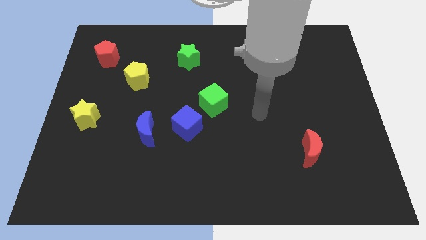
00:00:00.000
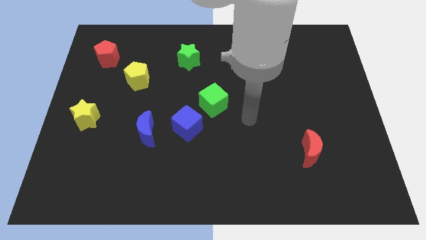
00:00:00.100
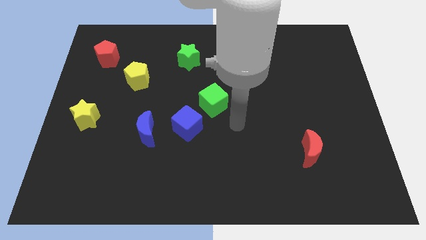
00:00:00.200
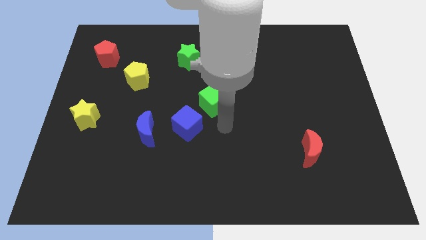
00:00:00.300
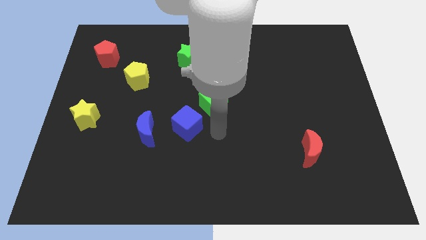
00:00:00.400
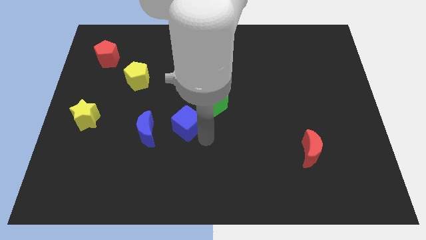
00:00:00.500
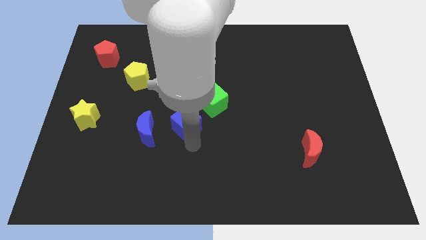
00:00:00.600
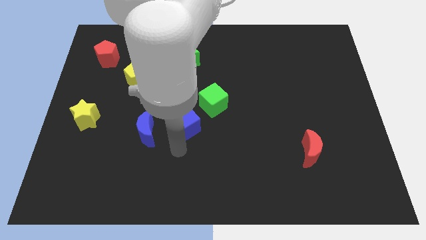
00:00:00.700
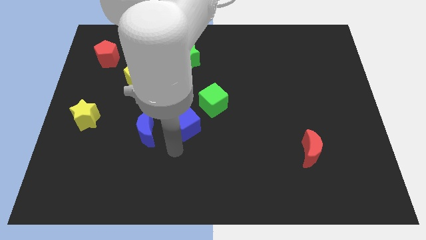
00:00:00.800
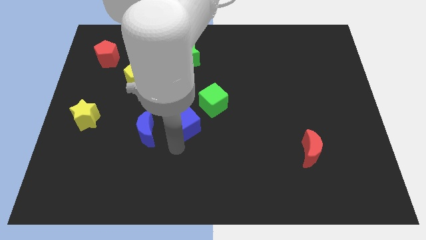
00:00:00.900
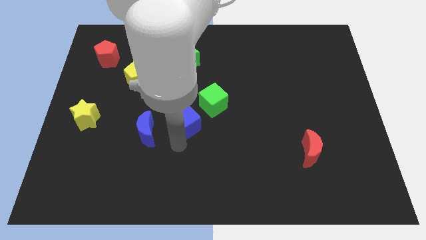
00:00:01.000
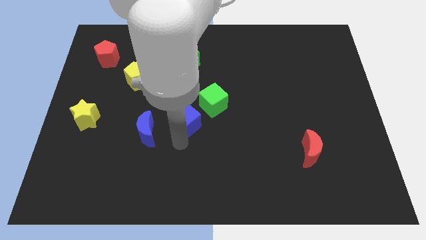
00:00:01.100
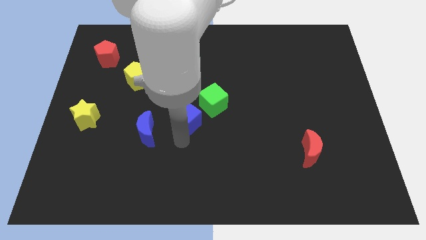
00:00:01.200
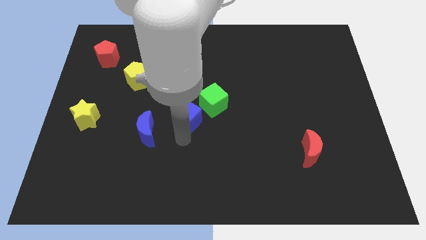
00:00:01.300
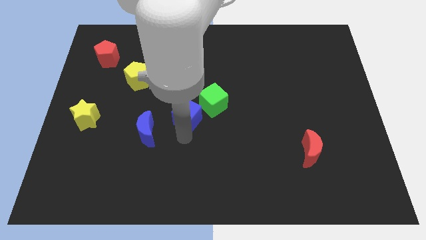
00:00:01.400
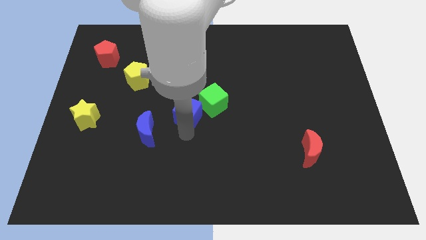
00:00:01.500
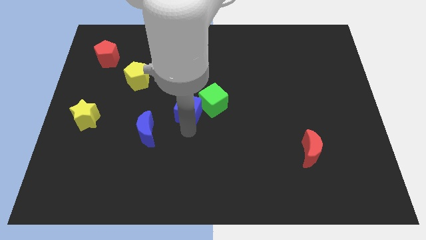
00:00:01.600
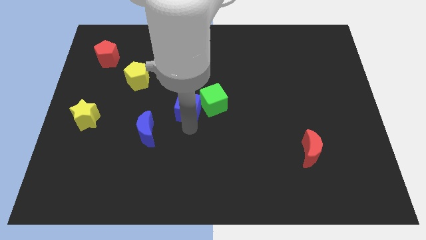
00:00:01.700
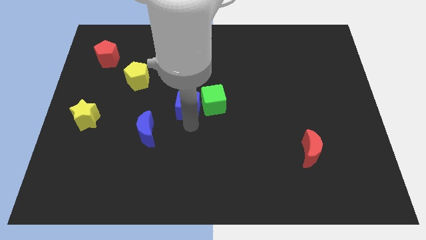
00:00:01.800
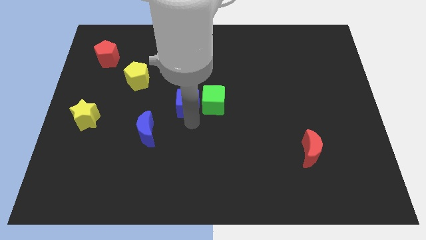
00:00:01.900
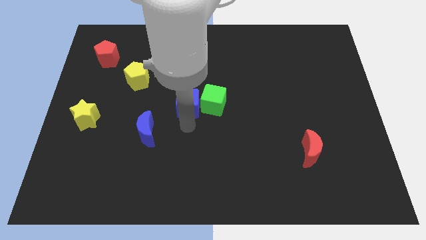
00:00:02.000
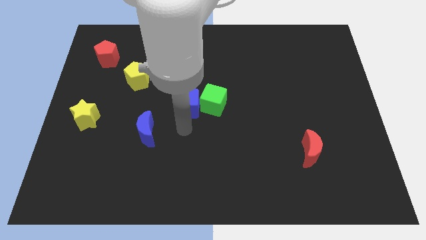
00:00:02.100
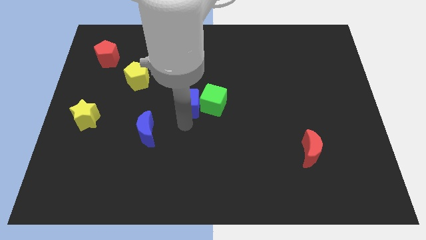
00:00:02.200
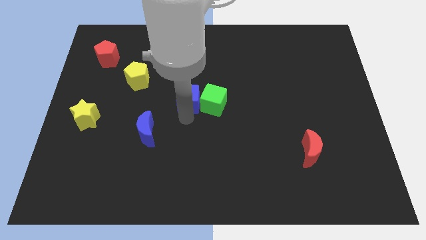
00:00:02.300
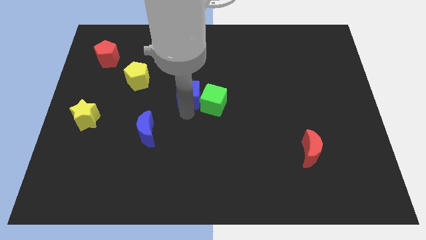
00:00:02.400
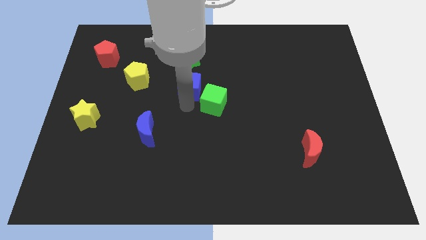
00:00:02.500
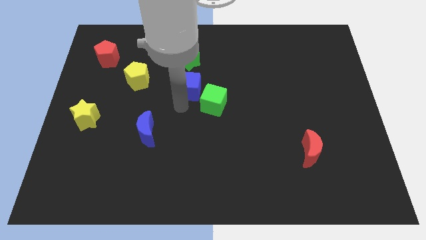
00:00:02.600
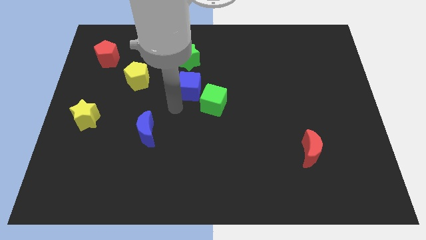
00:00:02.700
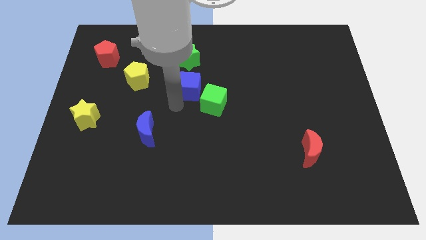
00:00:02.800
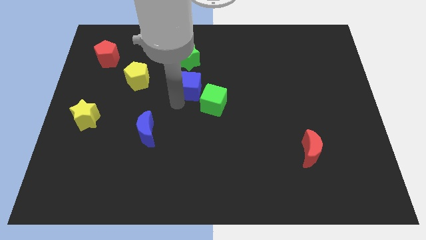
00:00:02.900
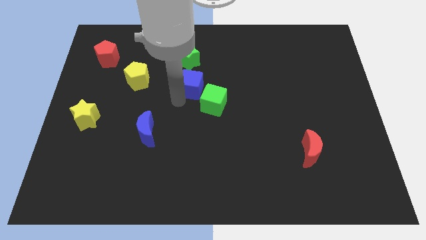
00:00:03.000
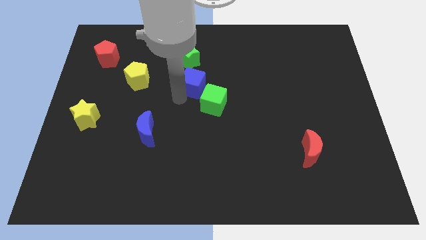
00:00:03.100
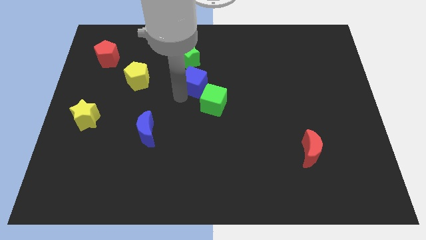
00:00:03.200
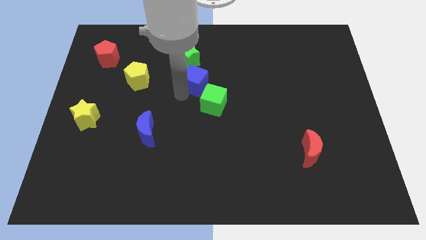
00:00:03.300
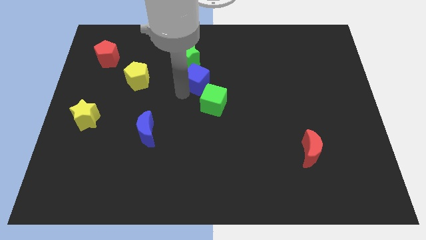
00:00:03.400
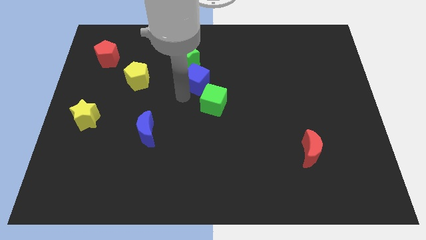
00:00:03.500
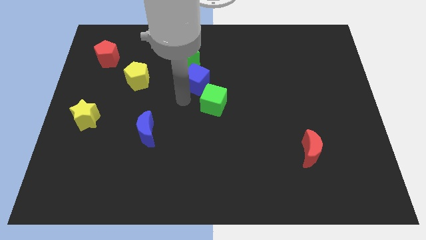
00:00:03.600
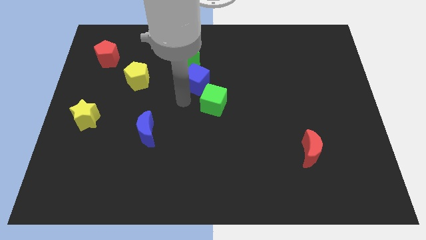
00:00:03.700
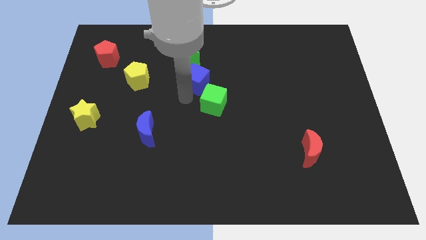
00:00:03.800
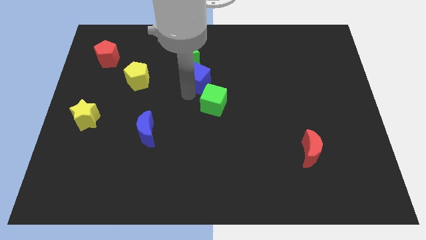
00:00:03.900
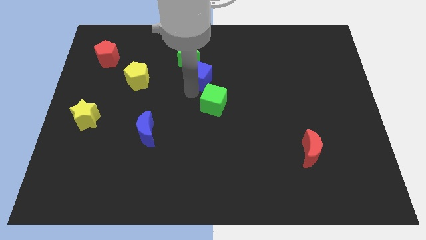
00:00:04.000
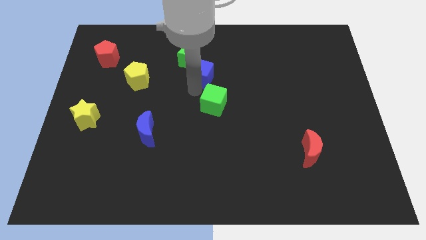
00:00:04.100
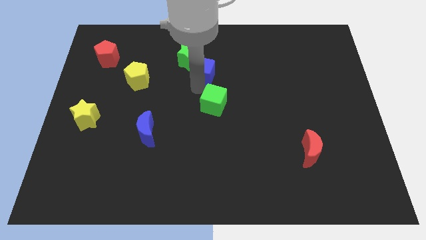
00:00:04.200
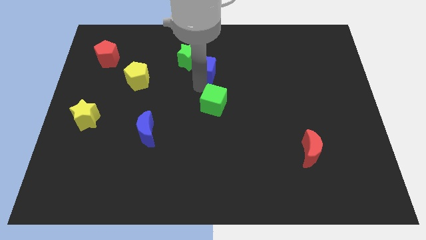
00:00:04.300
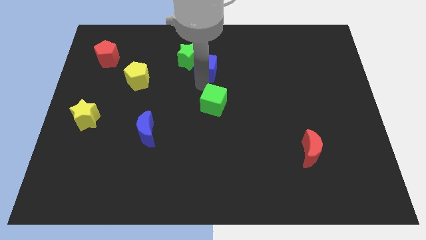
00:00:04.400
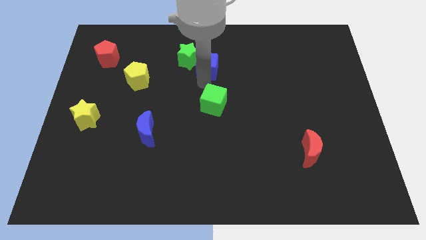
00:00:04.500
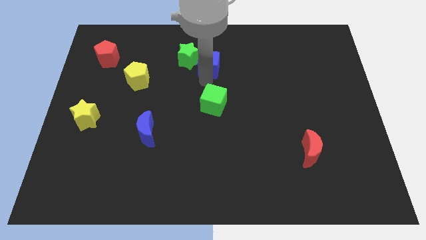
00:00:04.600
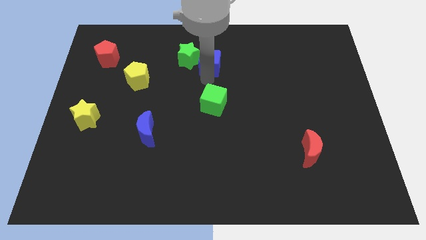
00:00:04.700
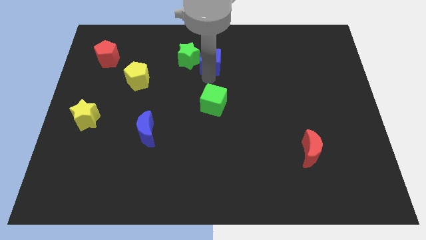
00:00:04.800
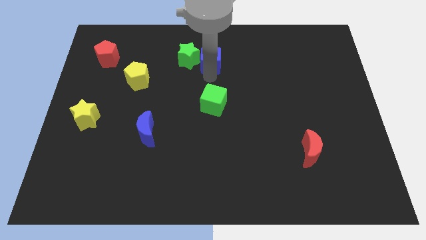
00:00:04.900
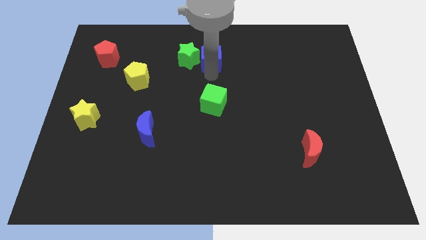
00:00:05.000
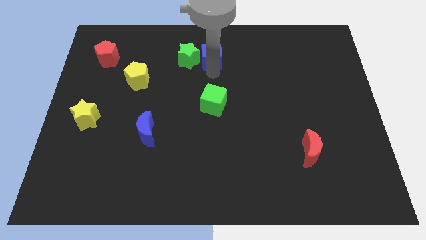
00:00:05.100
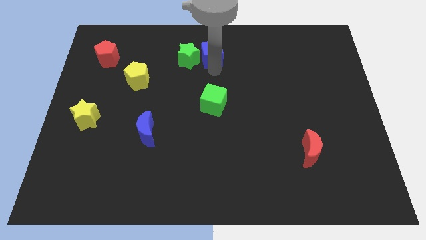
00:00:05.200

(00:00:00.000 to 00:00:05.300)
put the blue cube to the towards your base
